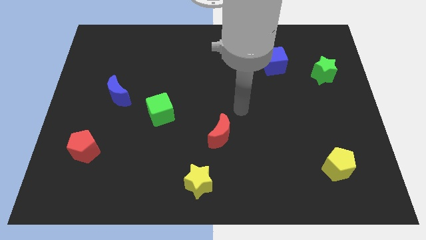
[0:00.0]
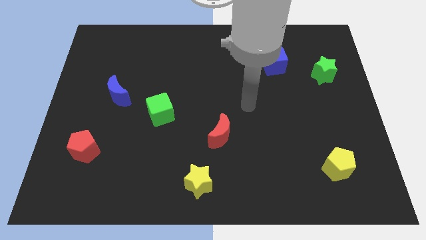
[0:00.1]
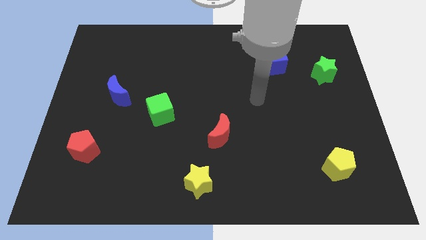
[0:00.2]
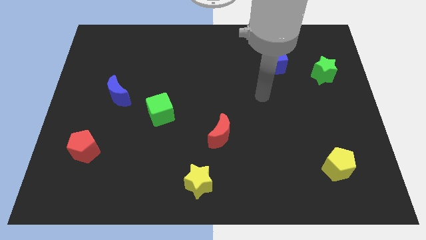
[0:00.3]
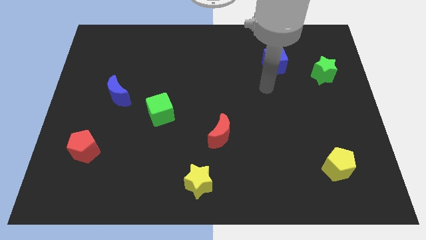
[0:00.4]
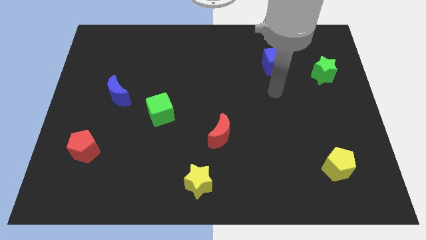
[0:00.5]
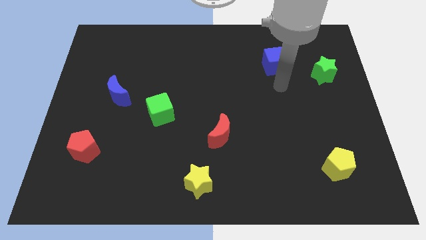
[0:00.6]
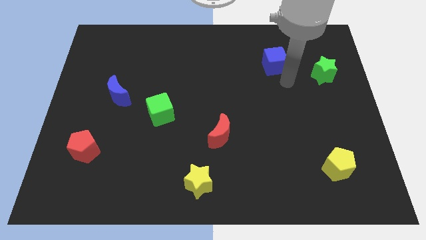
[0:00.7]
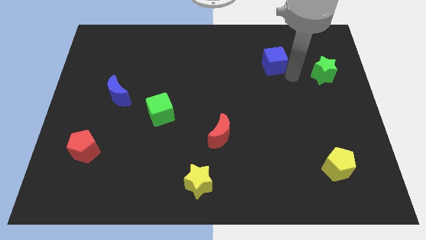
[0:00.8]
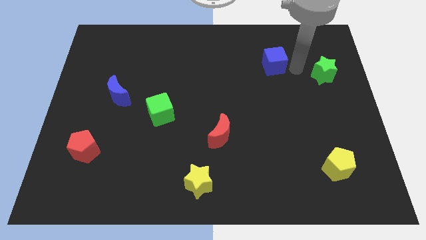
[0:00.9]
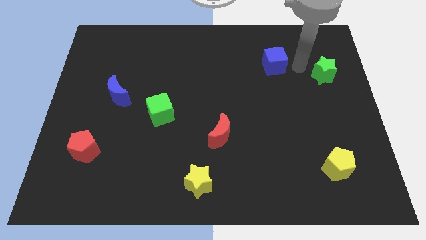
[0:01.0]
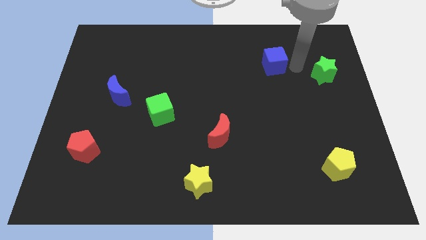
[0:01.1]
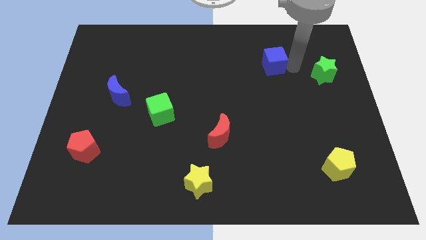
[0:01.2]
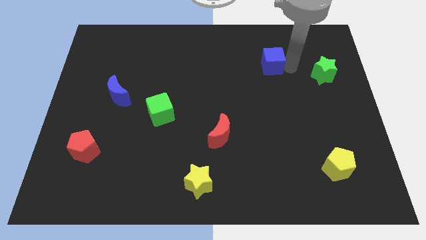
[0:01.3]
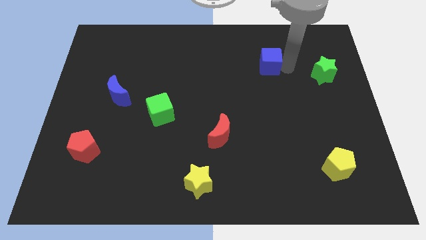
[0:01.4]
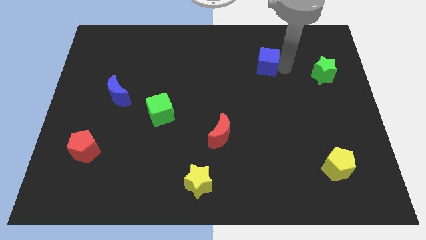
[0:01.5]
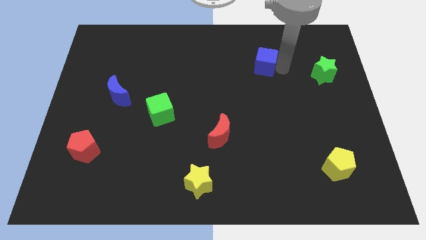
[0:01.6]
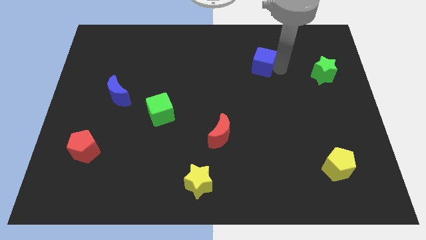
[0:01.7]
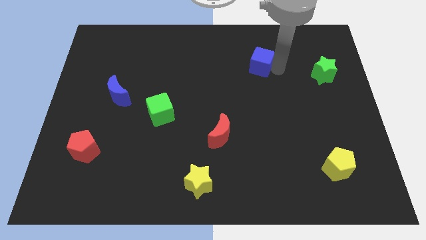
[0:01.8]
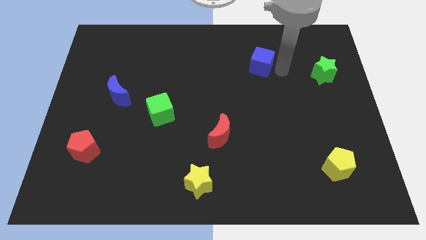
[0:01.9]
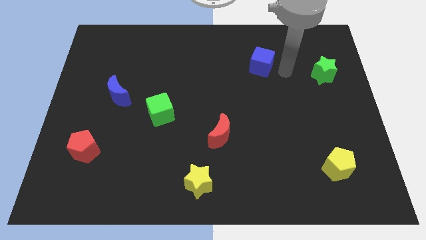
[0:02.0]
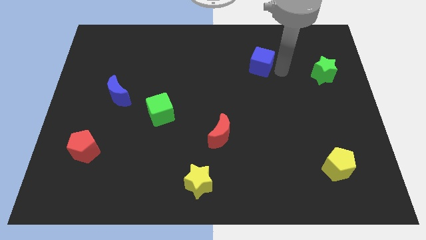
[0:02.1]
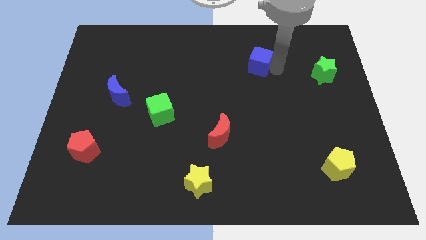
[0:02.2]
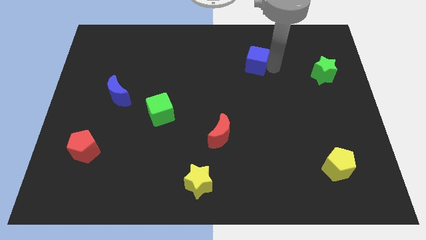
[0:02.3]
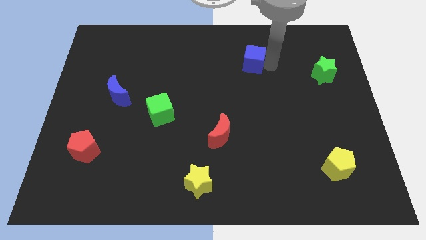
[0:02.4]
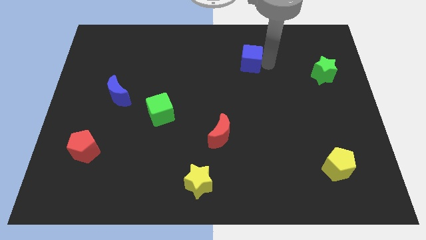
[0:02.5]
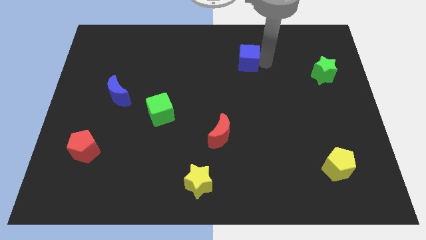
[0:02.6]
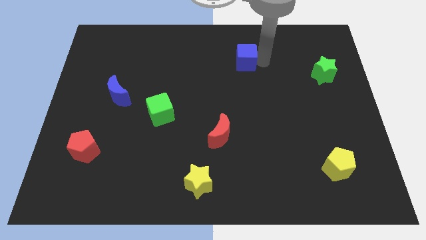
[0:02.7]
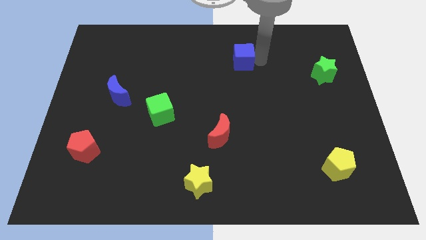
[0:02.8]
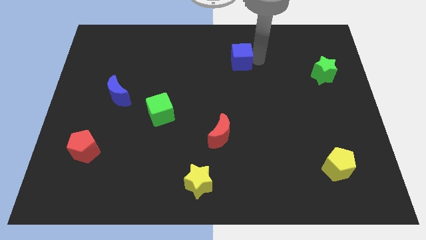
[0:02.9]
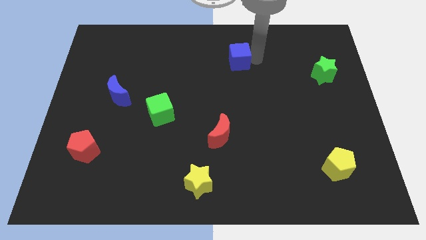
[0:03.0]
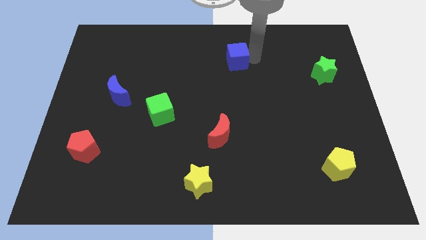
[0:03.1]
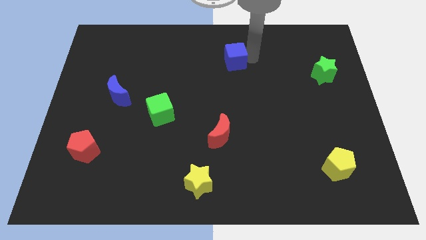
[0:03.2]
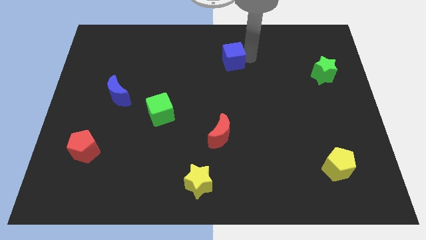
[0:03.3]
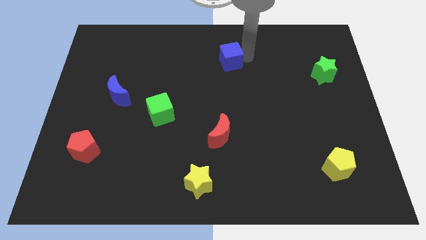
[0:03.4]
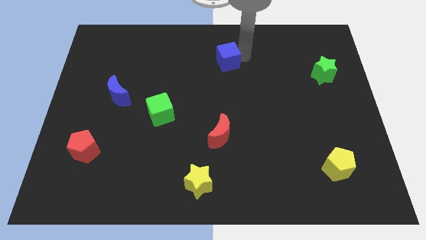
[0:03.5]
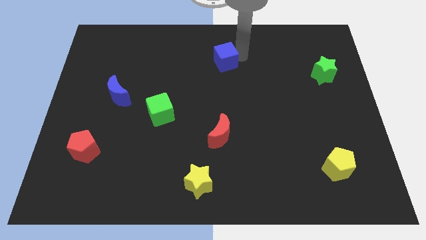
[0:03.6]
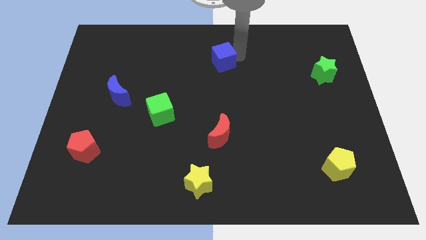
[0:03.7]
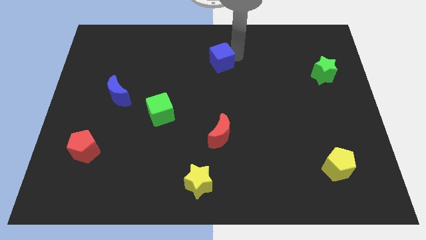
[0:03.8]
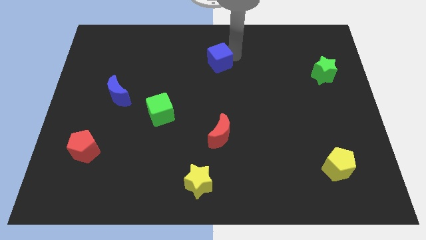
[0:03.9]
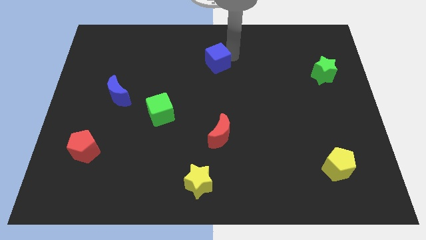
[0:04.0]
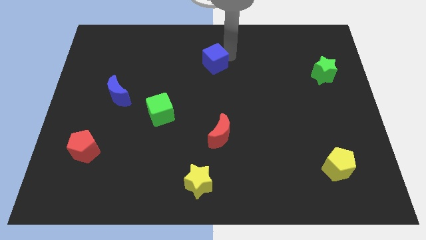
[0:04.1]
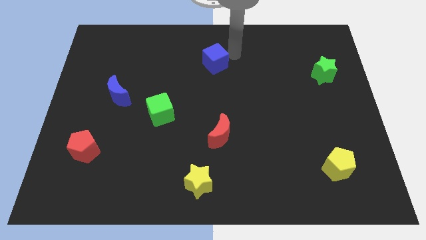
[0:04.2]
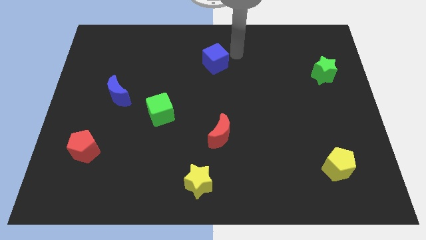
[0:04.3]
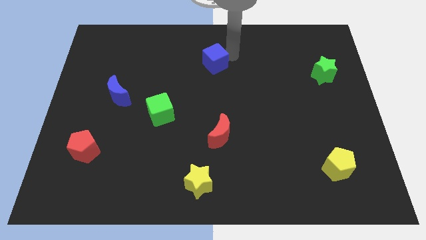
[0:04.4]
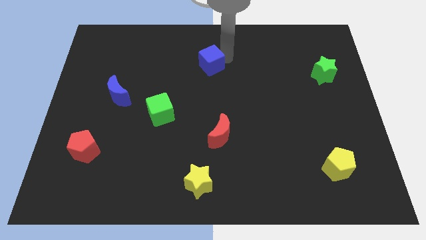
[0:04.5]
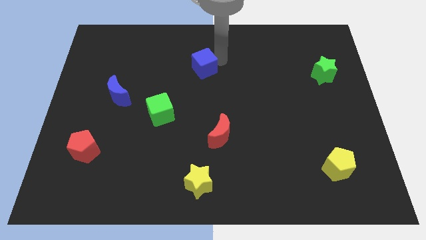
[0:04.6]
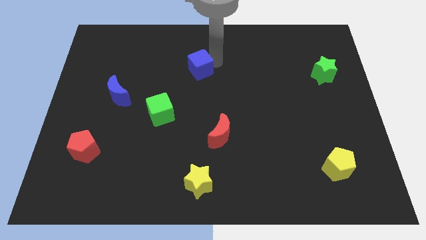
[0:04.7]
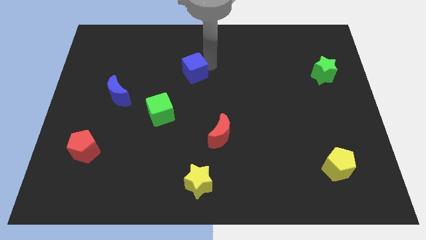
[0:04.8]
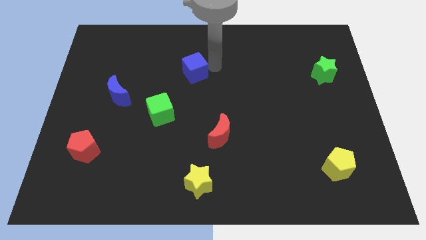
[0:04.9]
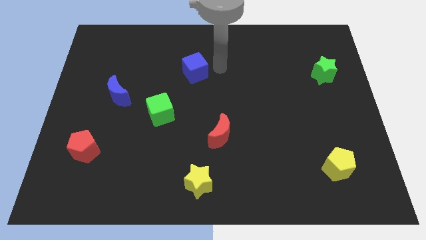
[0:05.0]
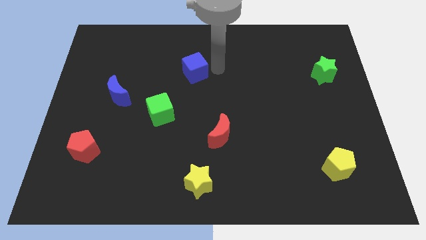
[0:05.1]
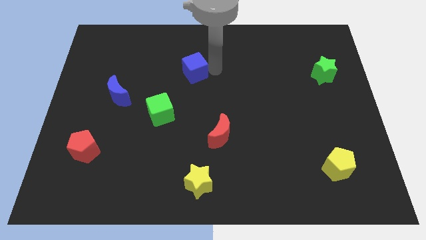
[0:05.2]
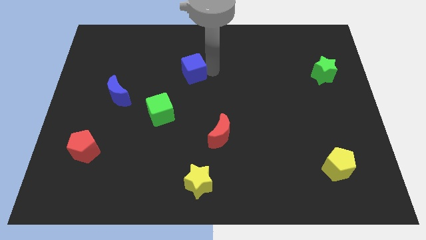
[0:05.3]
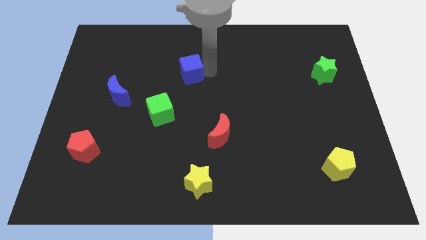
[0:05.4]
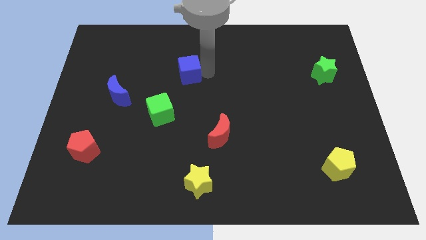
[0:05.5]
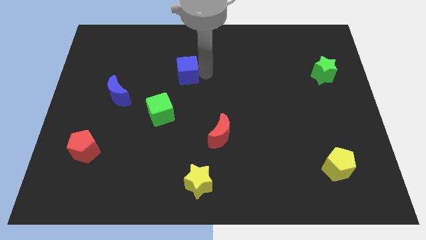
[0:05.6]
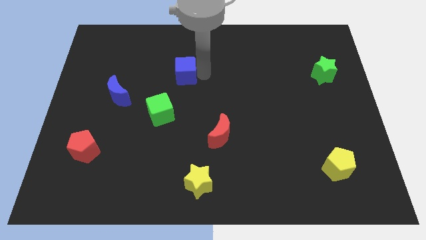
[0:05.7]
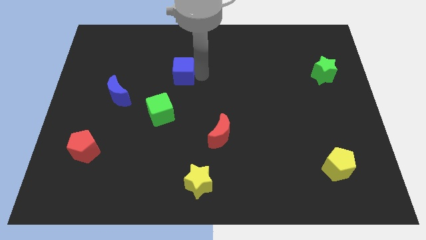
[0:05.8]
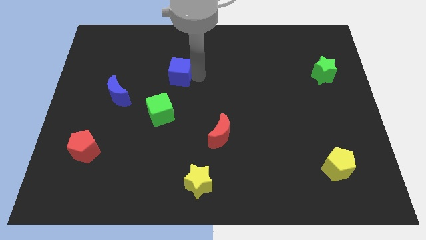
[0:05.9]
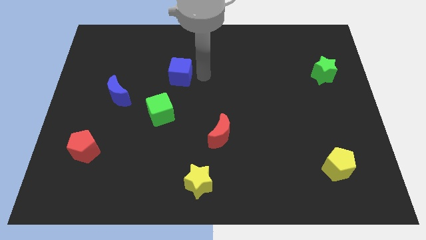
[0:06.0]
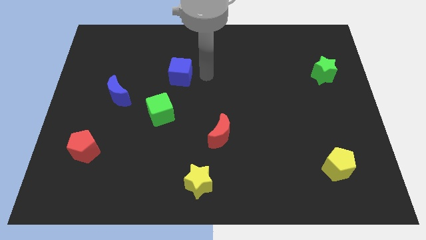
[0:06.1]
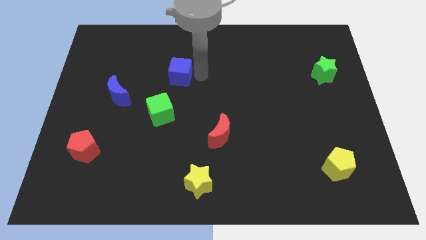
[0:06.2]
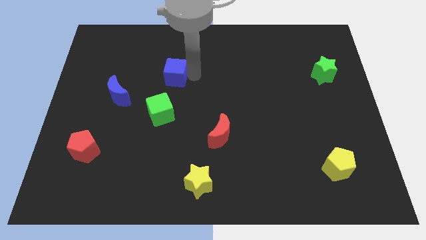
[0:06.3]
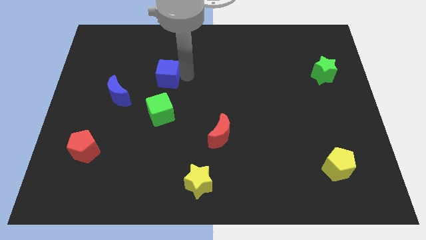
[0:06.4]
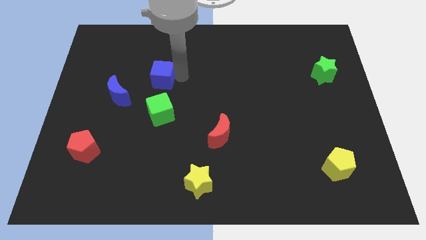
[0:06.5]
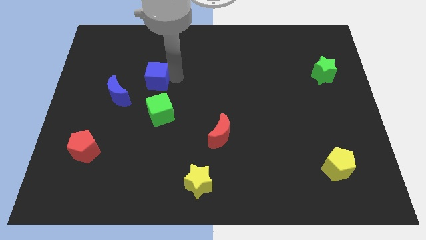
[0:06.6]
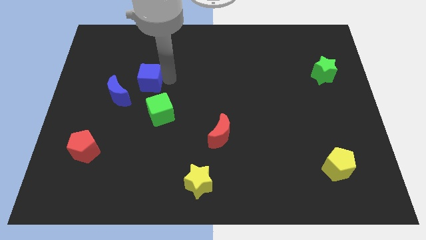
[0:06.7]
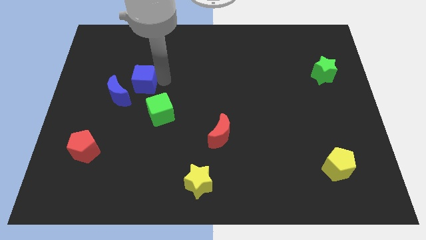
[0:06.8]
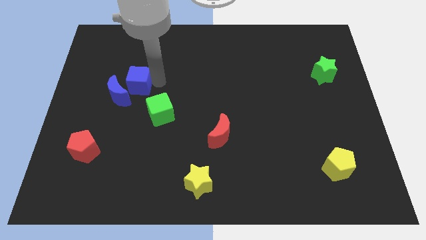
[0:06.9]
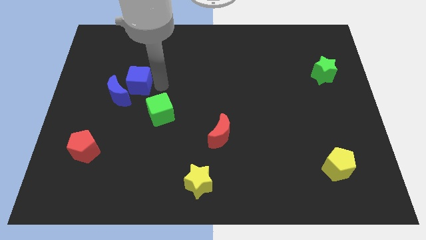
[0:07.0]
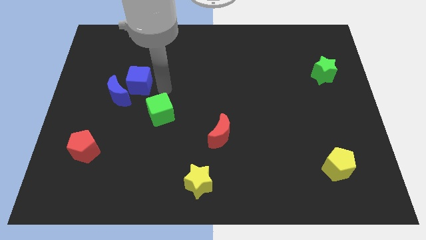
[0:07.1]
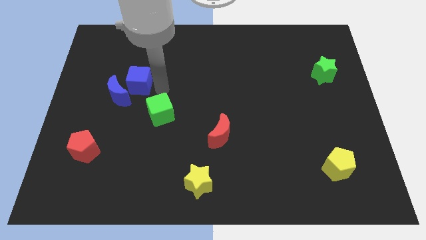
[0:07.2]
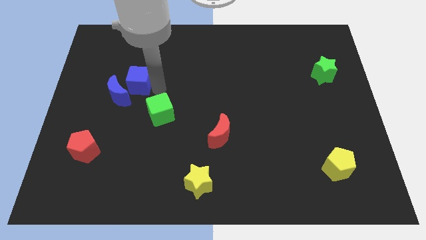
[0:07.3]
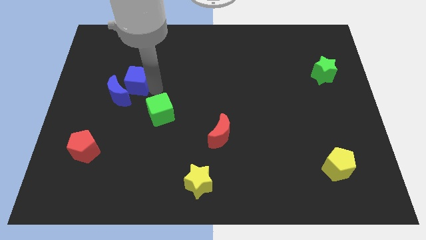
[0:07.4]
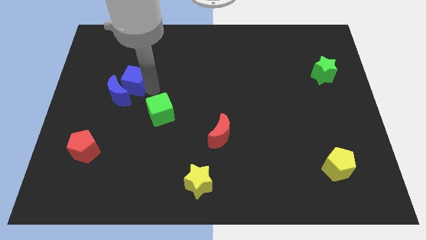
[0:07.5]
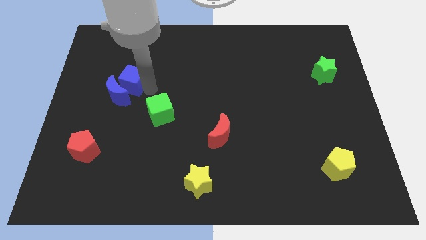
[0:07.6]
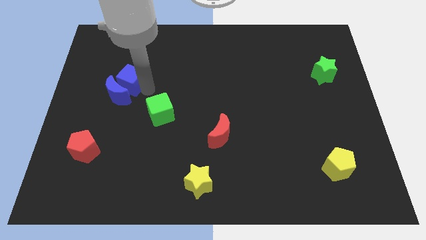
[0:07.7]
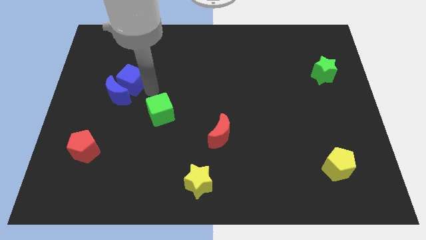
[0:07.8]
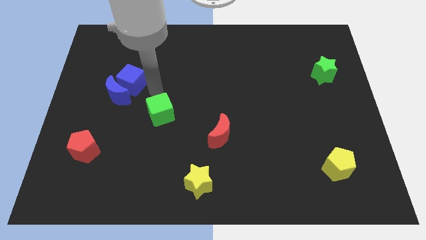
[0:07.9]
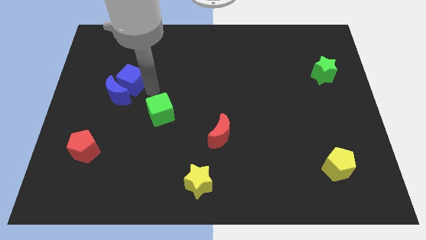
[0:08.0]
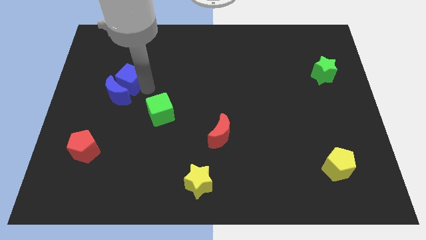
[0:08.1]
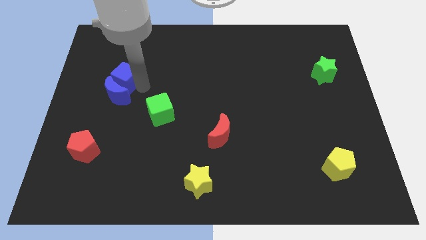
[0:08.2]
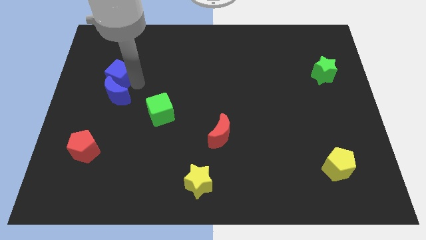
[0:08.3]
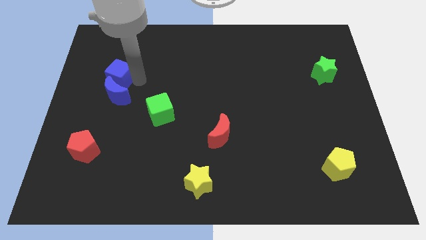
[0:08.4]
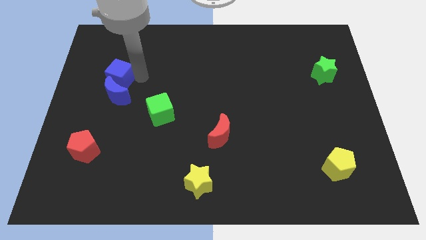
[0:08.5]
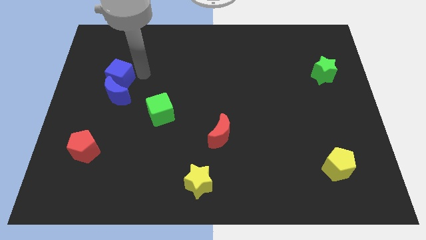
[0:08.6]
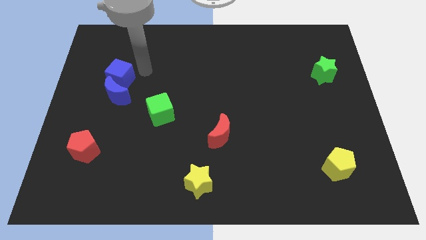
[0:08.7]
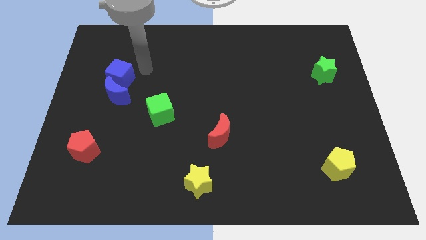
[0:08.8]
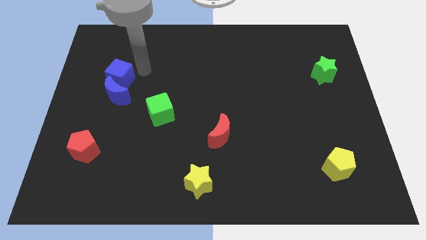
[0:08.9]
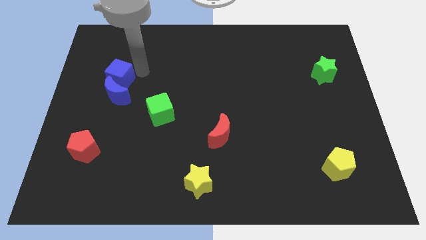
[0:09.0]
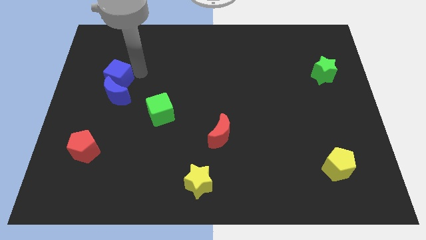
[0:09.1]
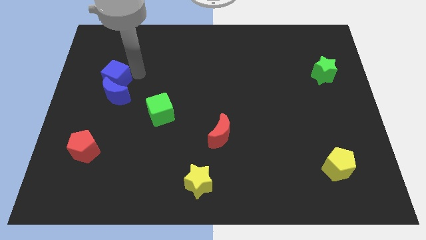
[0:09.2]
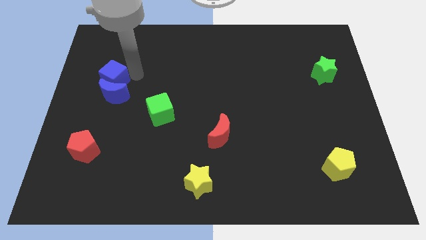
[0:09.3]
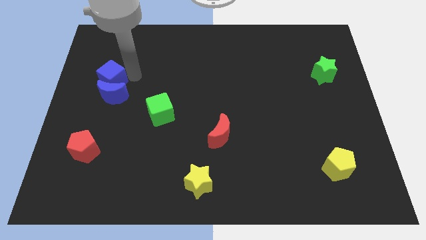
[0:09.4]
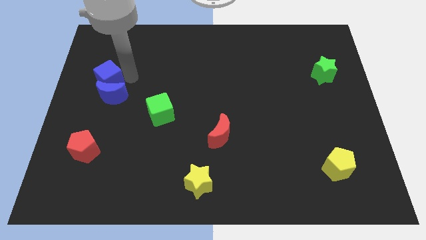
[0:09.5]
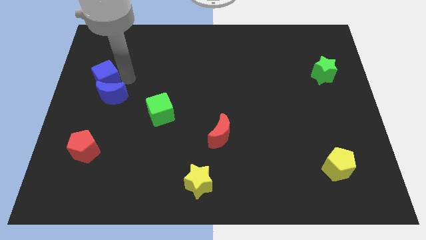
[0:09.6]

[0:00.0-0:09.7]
slide the blue cube to the center left
